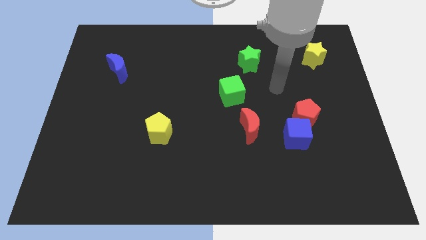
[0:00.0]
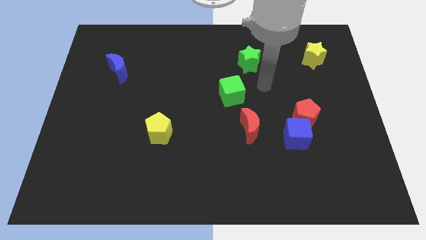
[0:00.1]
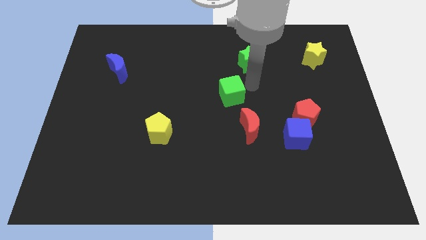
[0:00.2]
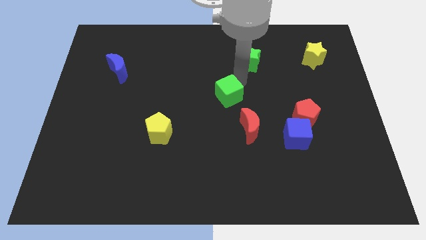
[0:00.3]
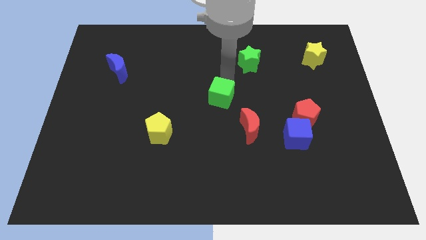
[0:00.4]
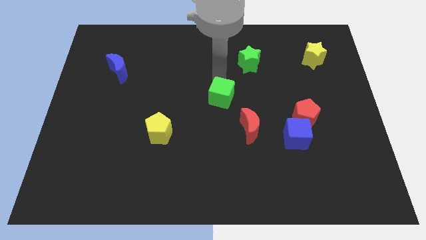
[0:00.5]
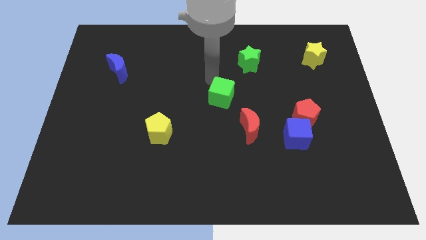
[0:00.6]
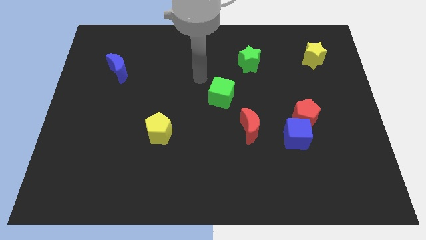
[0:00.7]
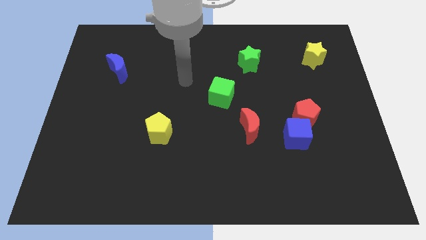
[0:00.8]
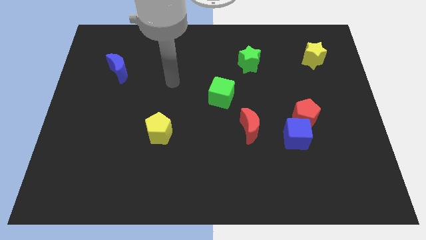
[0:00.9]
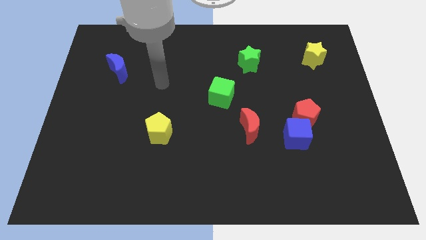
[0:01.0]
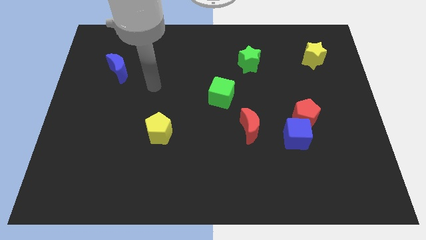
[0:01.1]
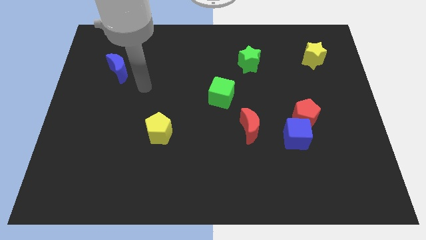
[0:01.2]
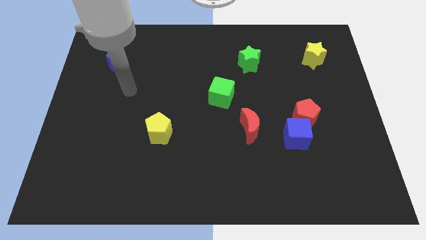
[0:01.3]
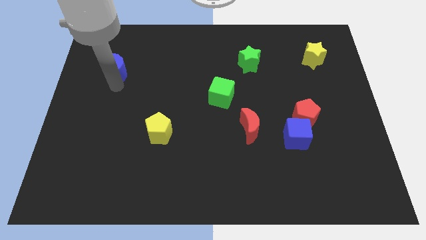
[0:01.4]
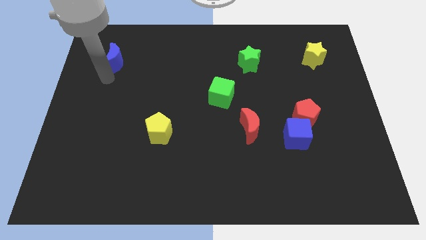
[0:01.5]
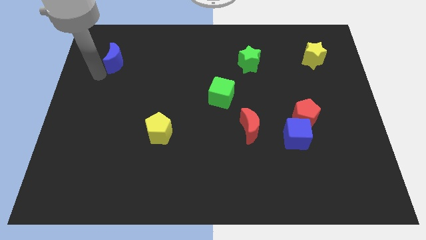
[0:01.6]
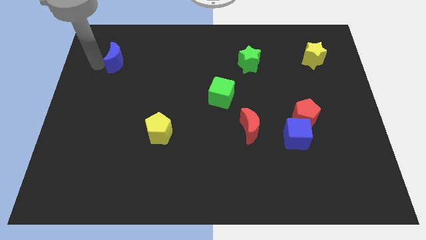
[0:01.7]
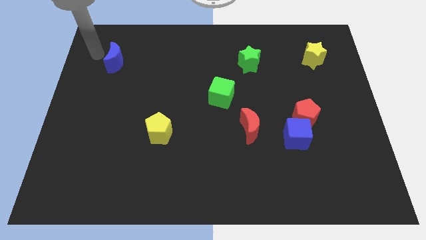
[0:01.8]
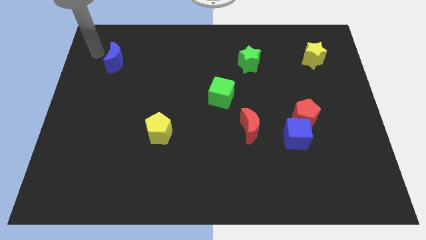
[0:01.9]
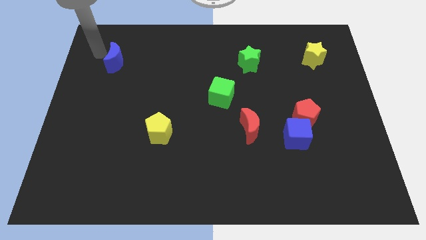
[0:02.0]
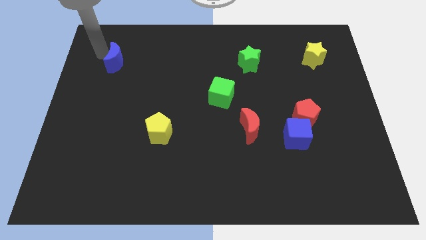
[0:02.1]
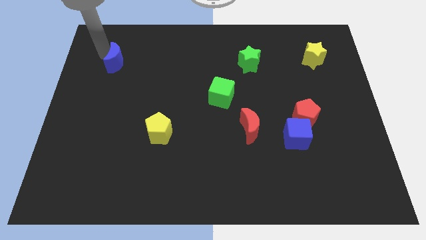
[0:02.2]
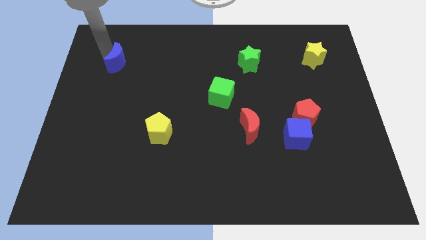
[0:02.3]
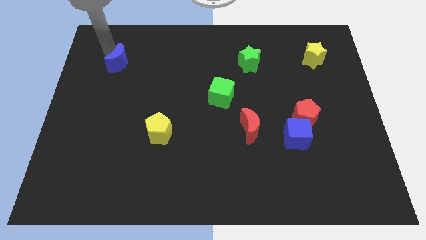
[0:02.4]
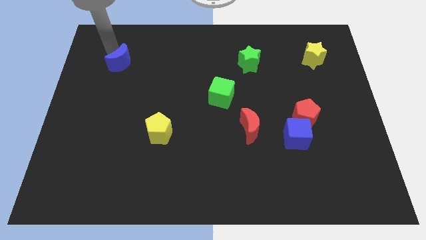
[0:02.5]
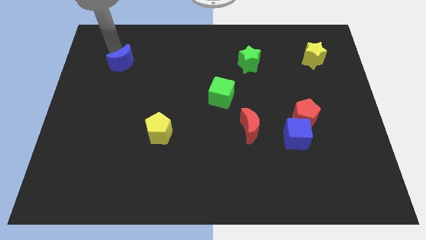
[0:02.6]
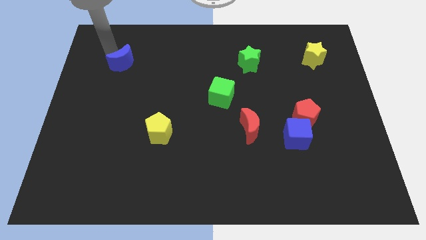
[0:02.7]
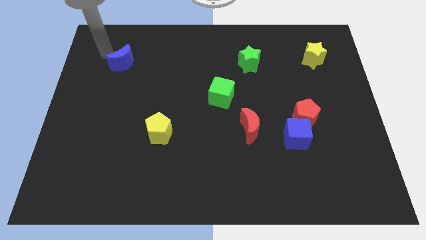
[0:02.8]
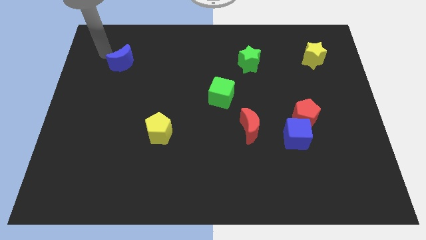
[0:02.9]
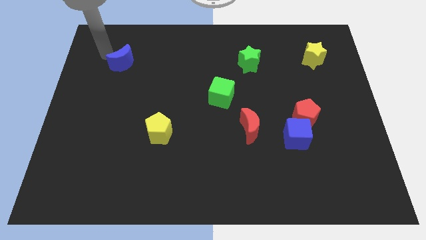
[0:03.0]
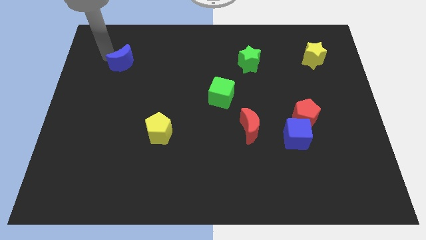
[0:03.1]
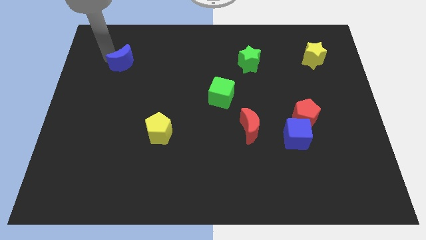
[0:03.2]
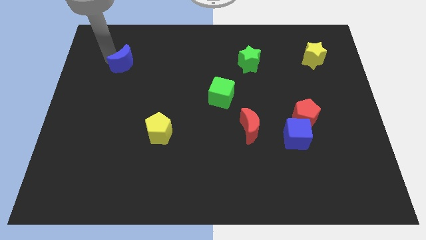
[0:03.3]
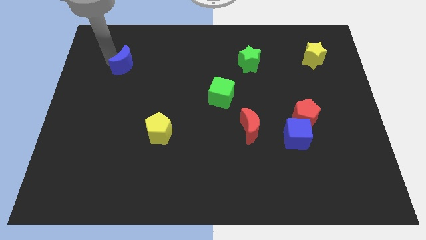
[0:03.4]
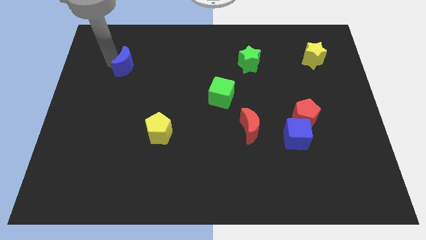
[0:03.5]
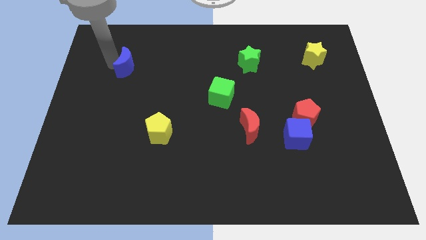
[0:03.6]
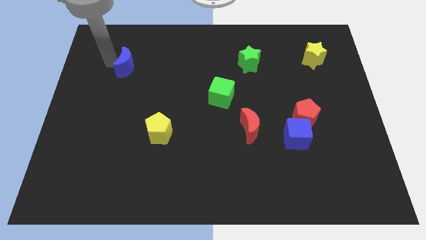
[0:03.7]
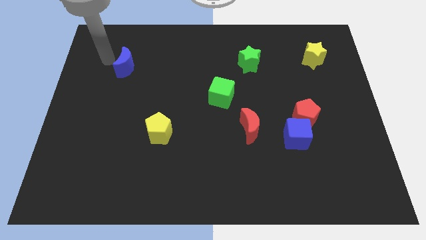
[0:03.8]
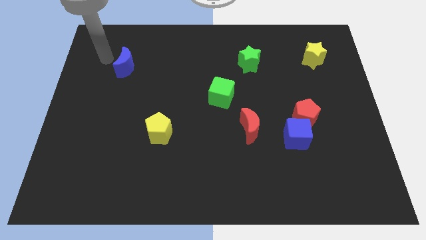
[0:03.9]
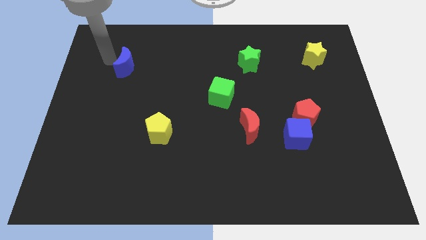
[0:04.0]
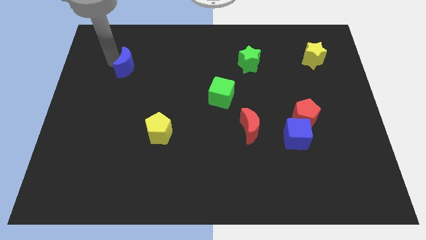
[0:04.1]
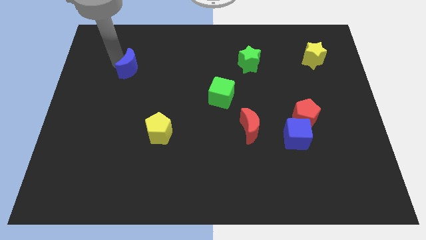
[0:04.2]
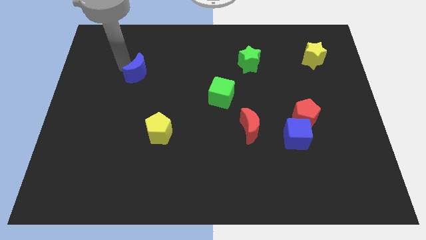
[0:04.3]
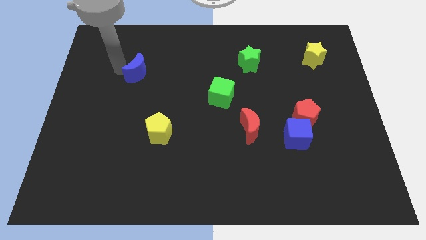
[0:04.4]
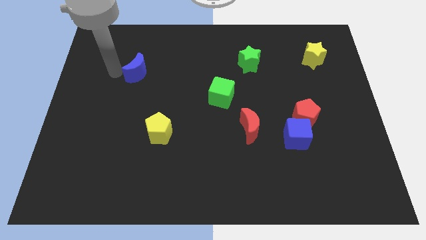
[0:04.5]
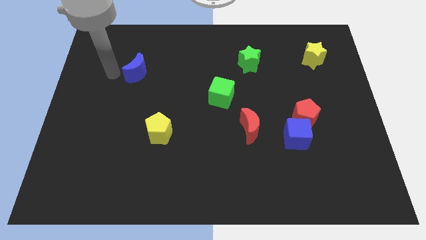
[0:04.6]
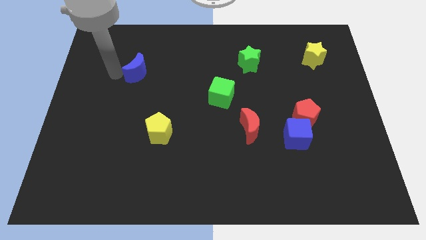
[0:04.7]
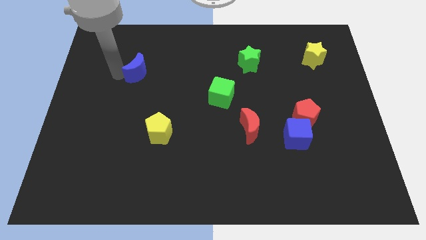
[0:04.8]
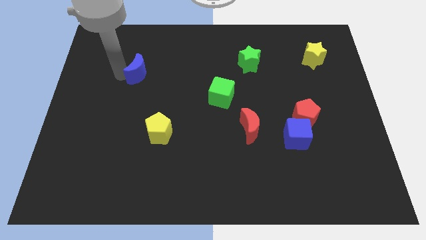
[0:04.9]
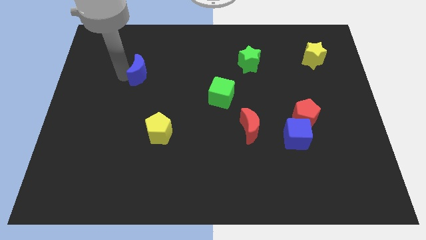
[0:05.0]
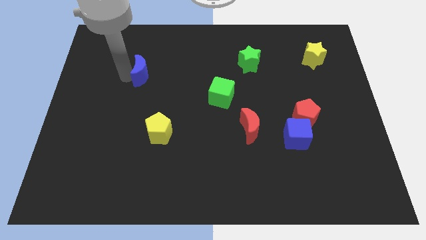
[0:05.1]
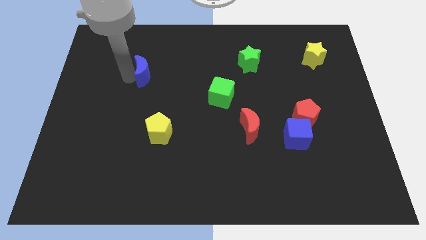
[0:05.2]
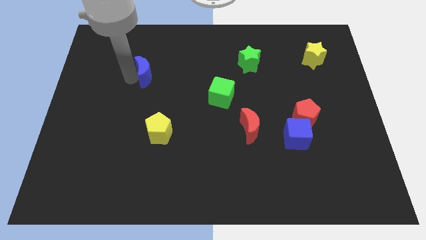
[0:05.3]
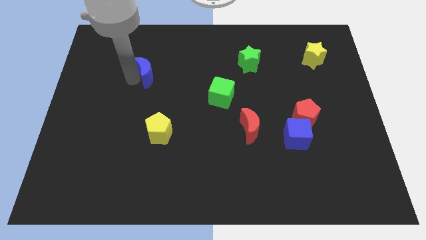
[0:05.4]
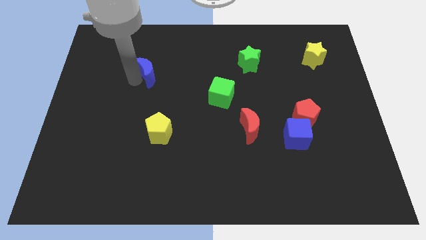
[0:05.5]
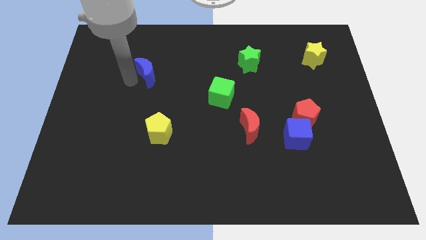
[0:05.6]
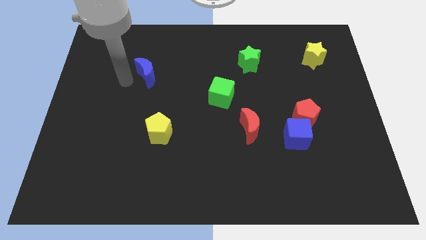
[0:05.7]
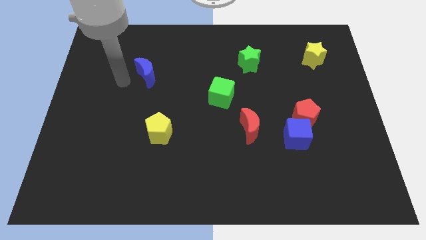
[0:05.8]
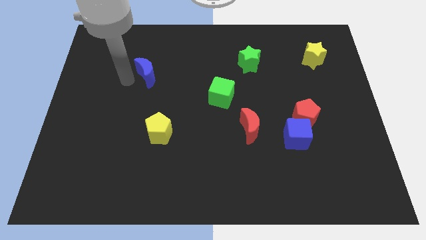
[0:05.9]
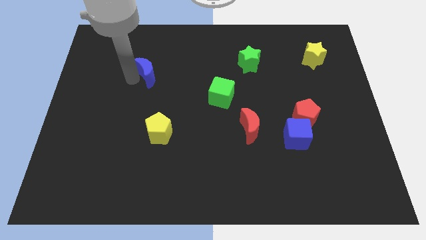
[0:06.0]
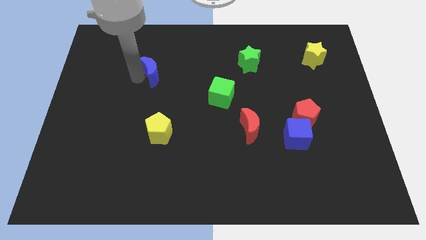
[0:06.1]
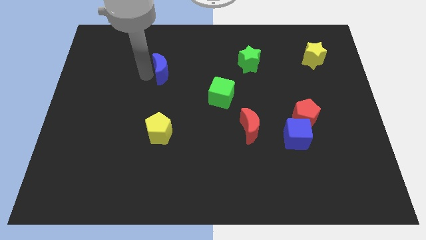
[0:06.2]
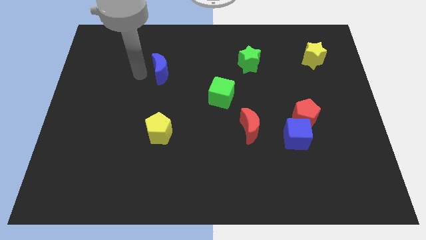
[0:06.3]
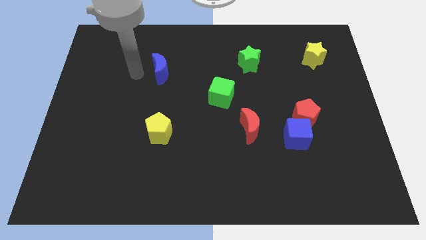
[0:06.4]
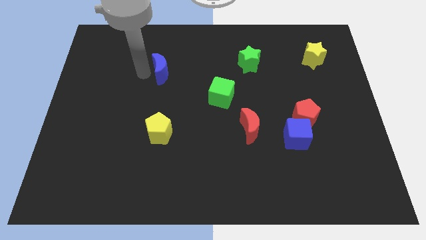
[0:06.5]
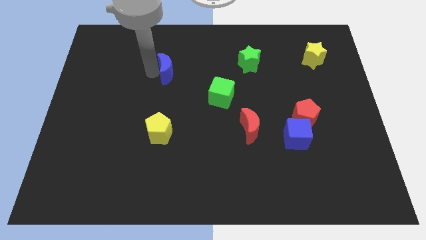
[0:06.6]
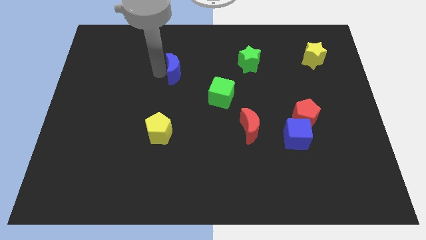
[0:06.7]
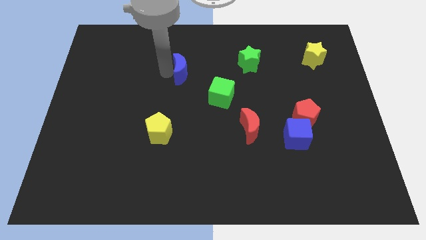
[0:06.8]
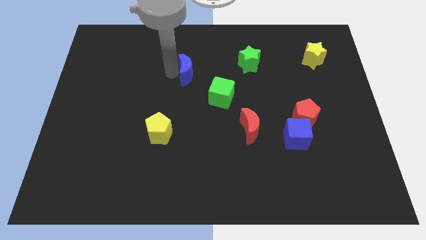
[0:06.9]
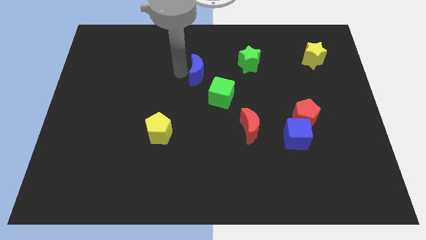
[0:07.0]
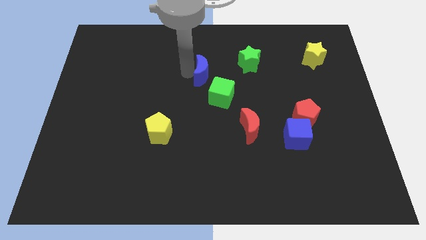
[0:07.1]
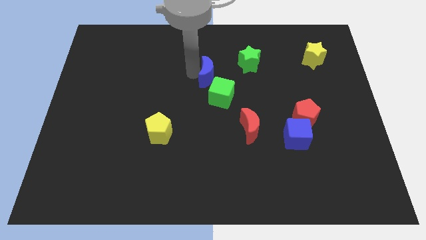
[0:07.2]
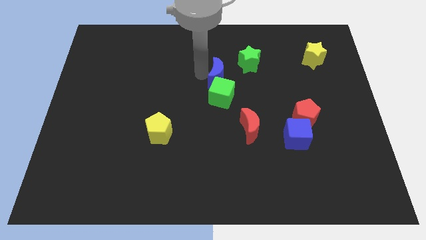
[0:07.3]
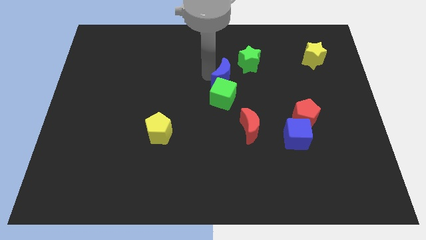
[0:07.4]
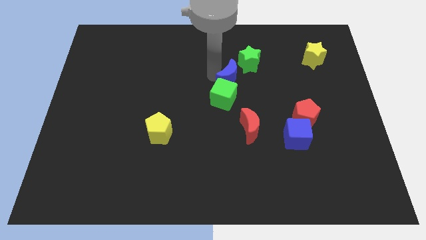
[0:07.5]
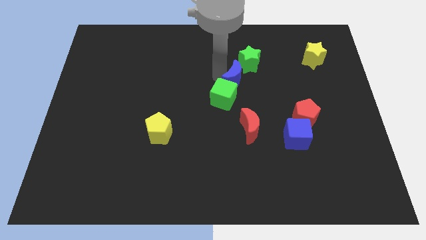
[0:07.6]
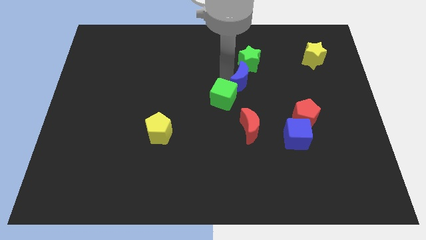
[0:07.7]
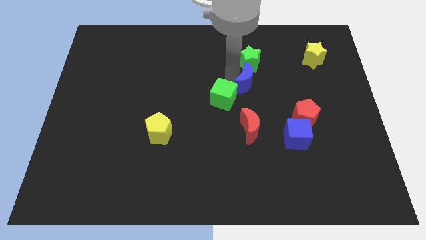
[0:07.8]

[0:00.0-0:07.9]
push the blue moon just right of the green cube

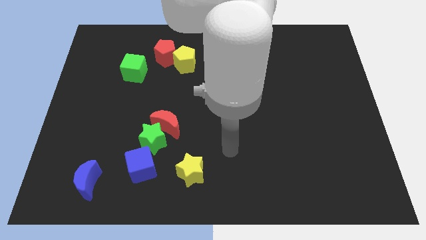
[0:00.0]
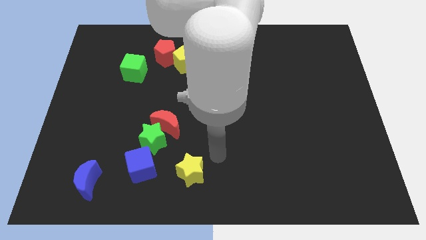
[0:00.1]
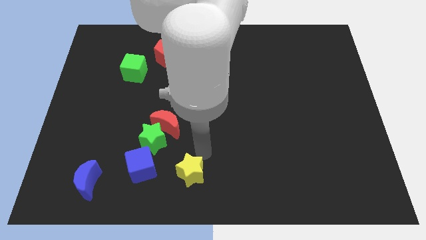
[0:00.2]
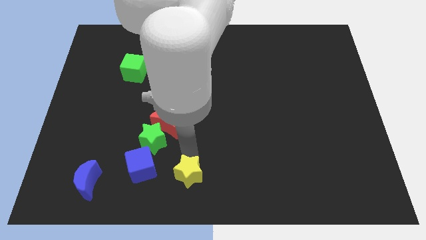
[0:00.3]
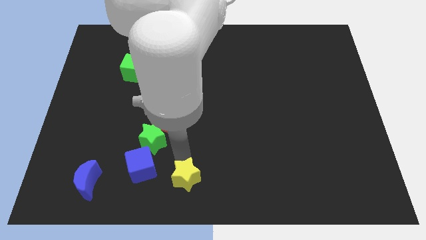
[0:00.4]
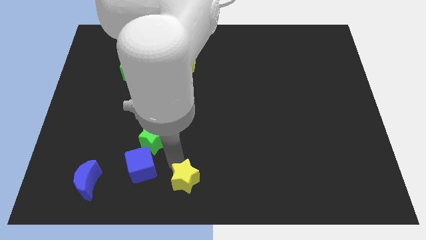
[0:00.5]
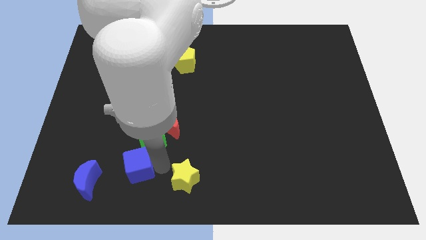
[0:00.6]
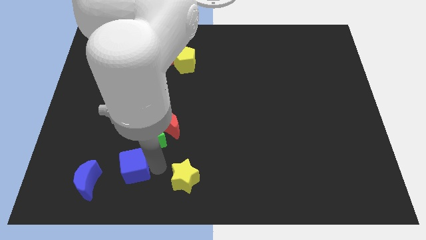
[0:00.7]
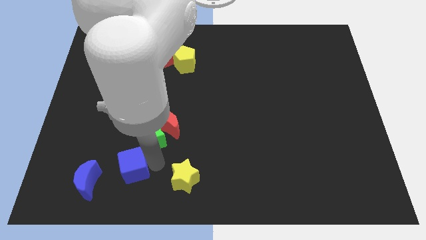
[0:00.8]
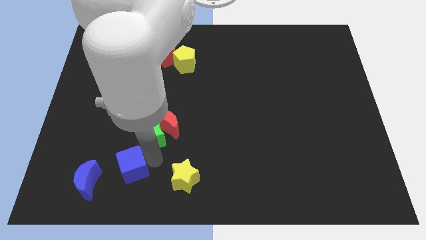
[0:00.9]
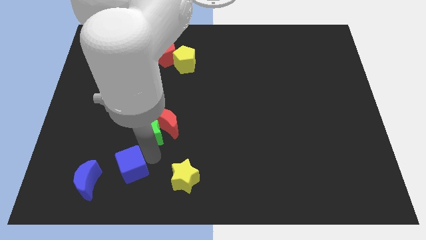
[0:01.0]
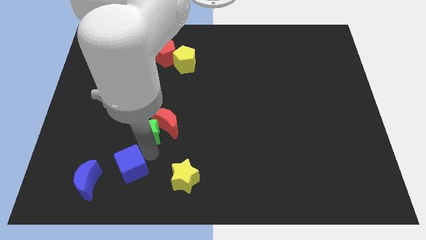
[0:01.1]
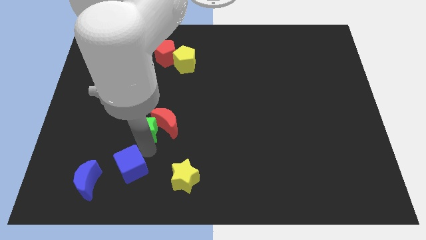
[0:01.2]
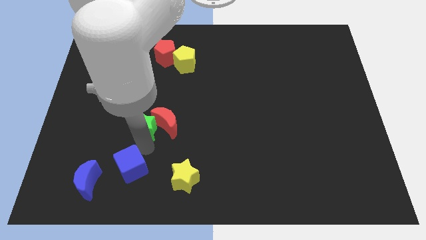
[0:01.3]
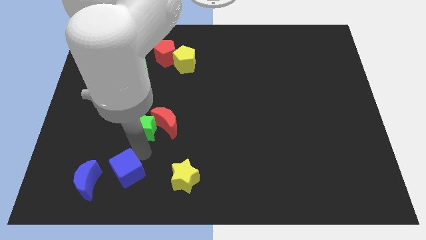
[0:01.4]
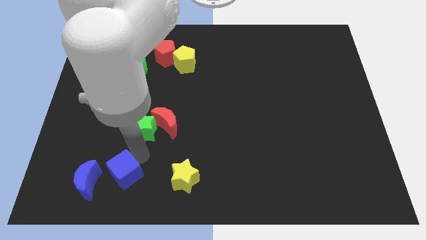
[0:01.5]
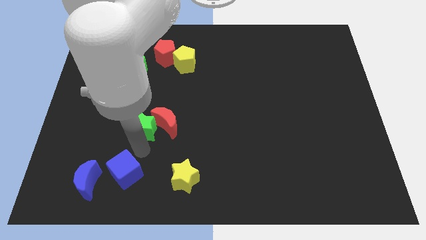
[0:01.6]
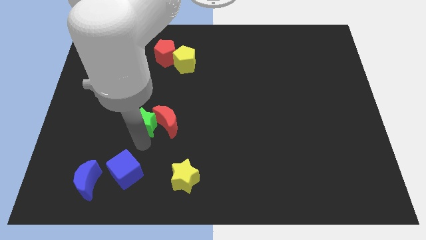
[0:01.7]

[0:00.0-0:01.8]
slide the green star to the top left side of the red moon
